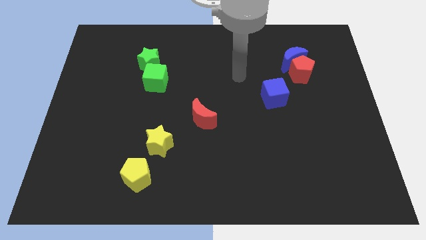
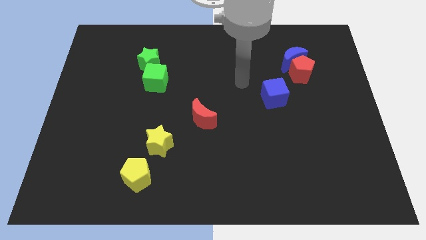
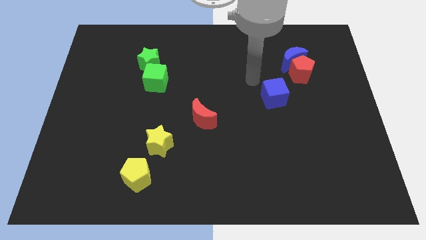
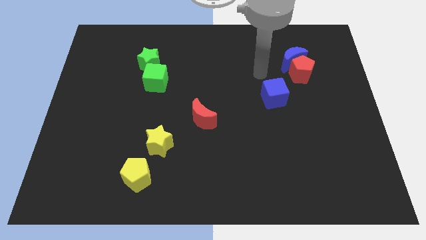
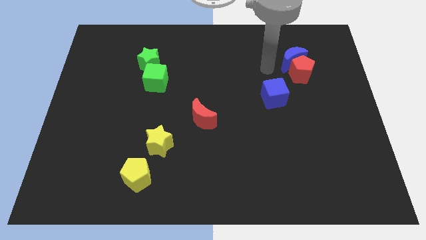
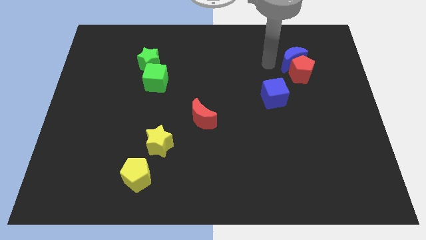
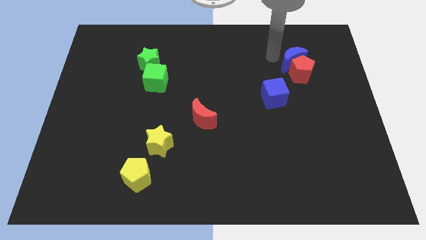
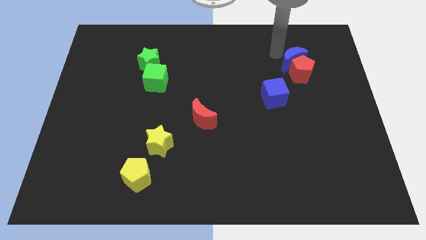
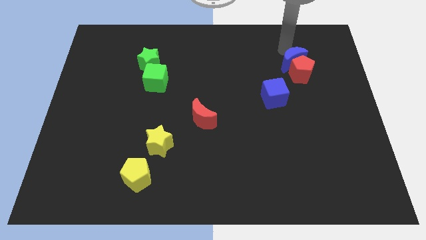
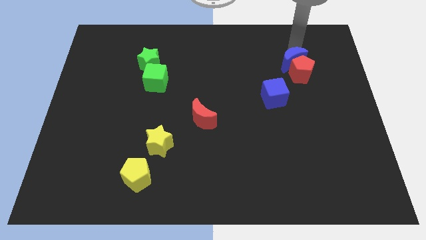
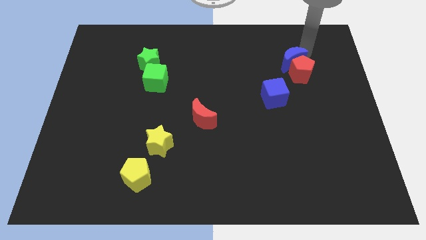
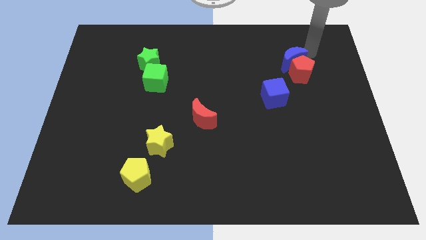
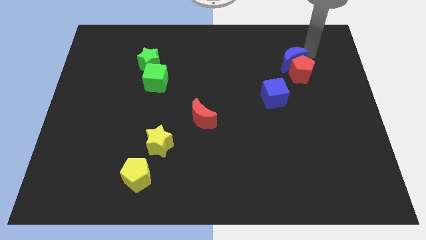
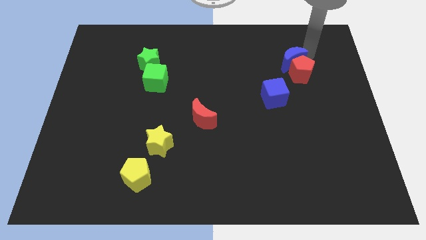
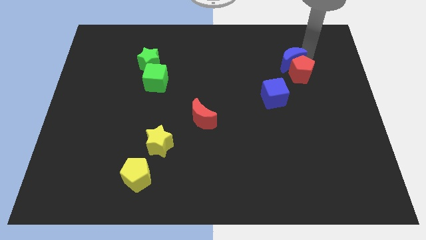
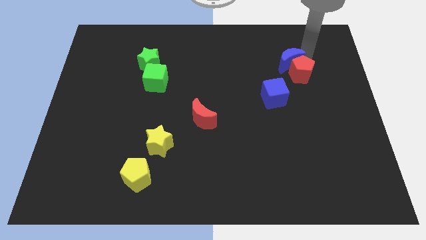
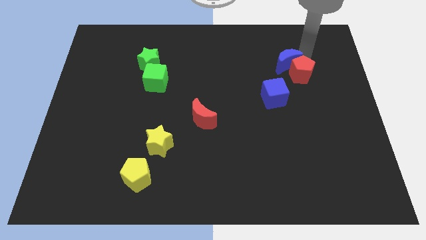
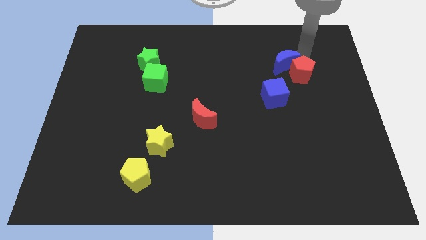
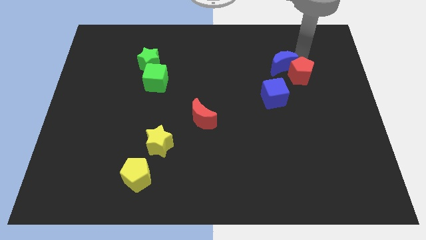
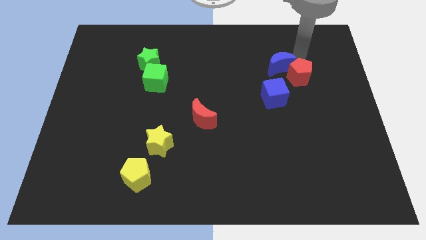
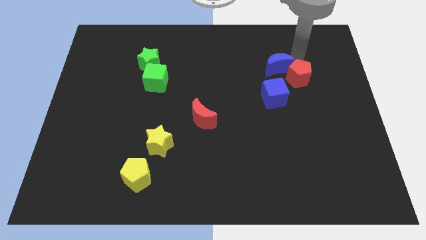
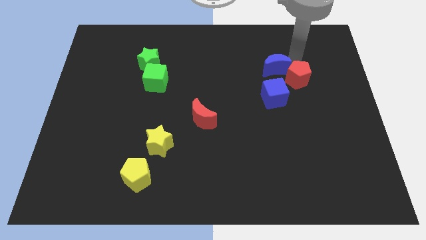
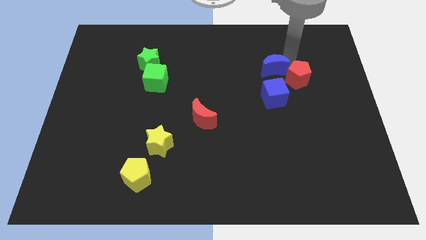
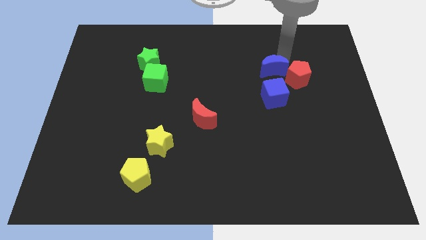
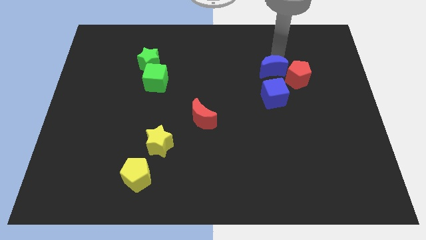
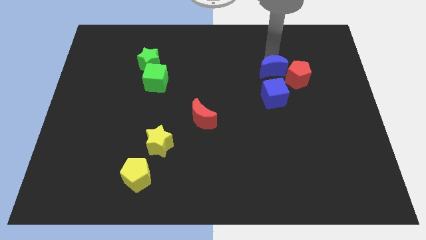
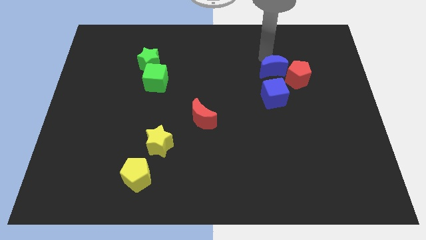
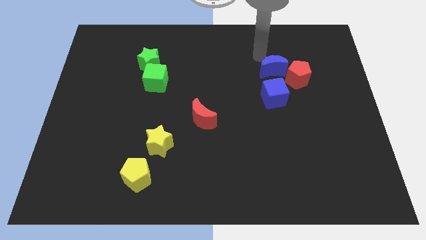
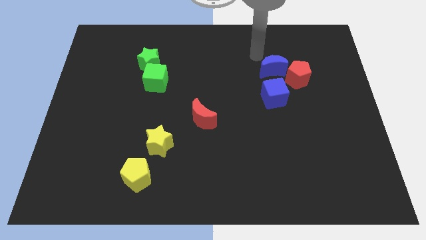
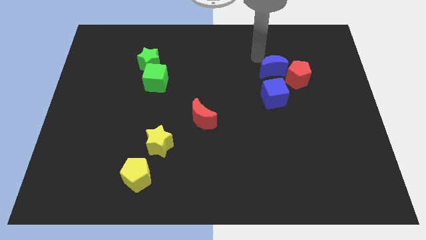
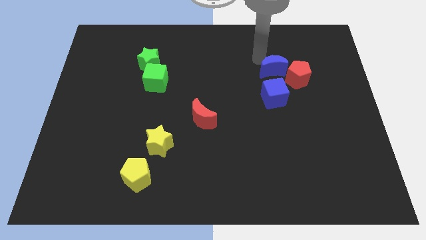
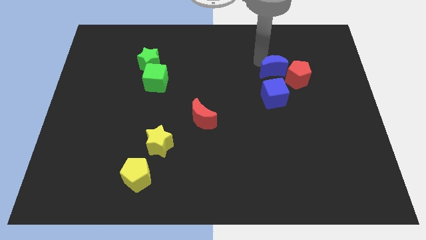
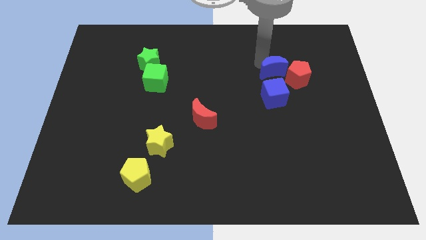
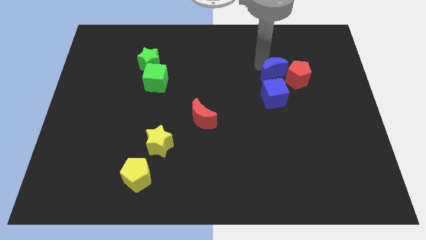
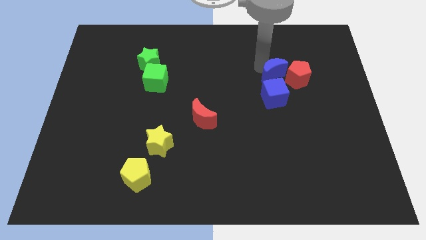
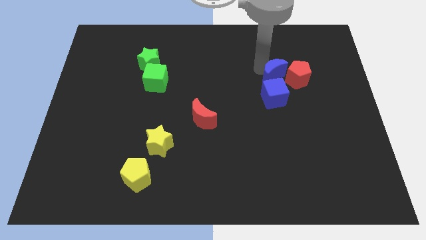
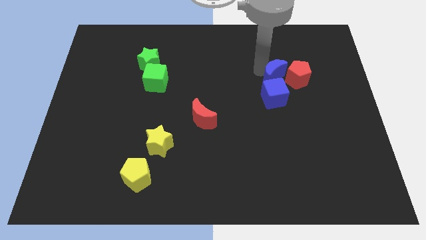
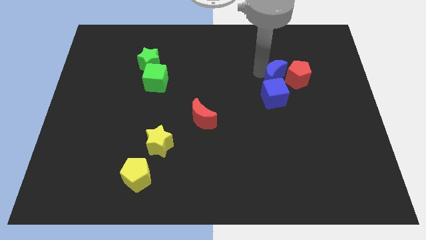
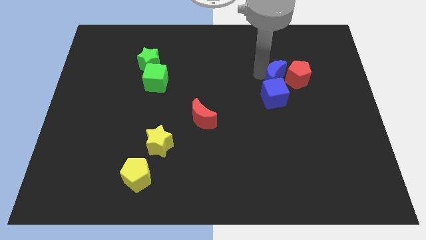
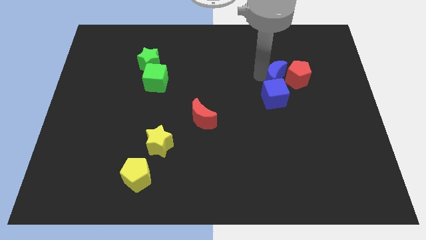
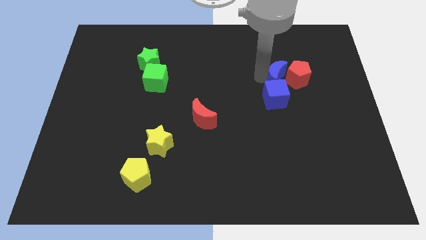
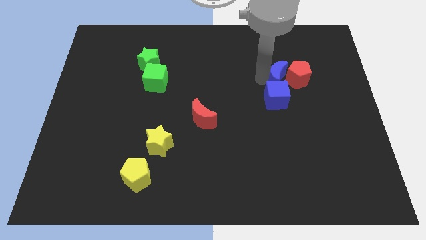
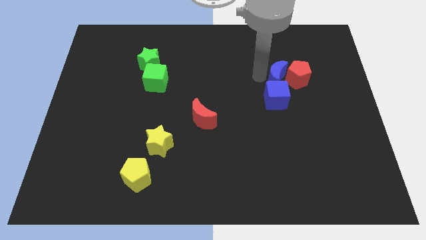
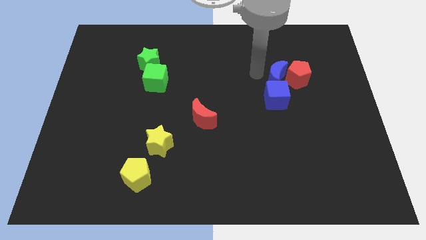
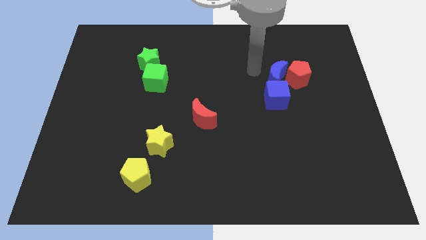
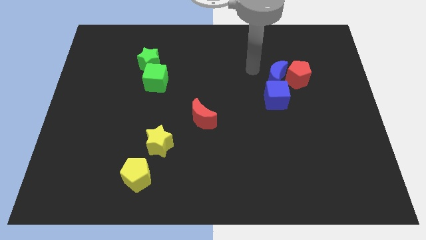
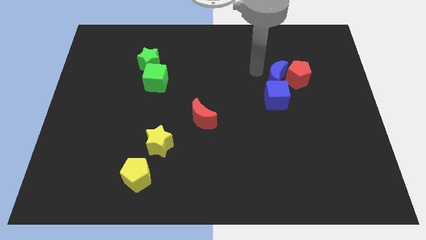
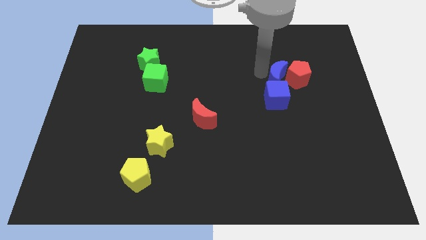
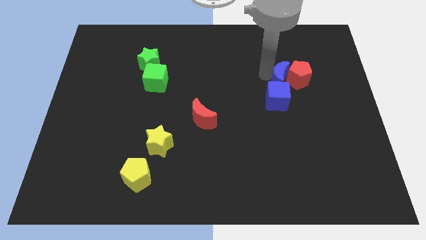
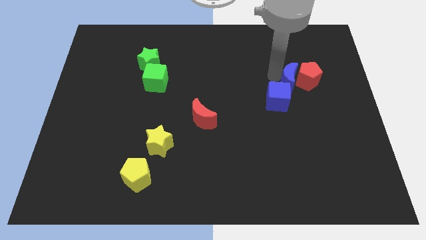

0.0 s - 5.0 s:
push the blue moon down a bit

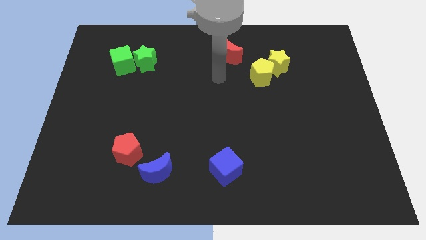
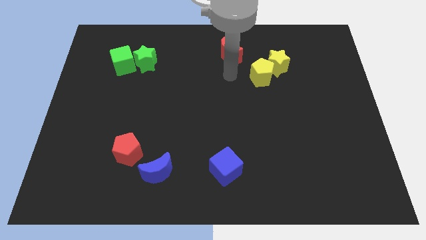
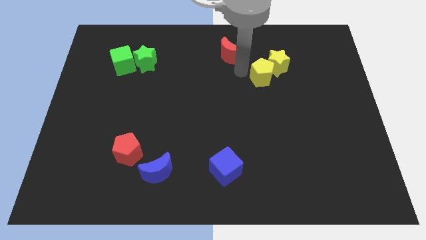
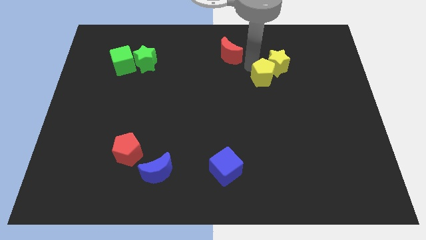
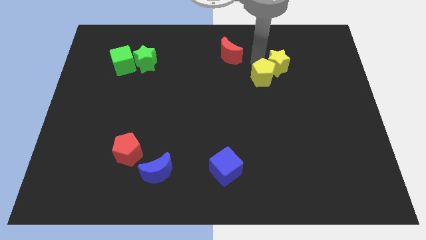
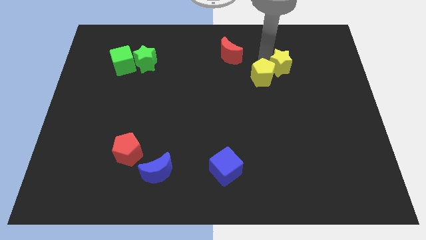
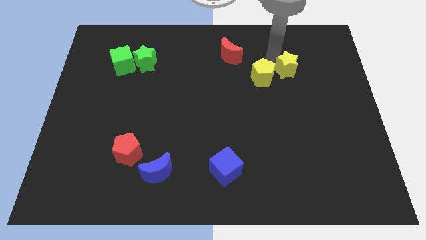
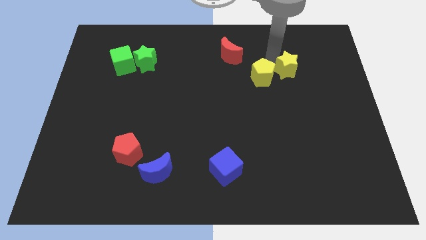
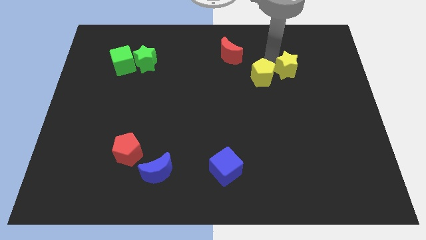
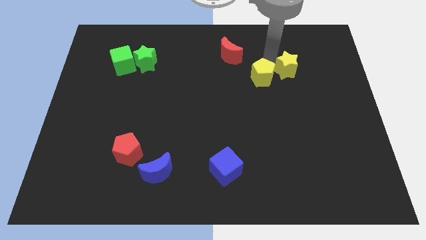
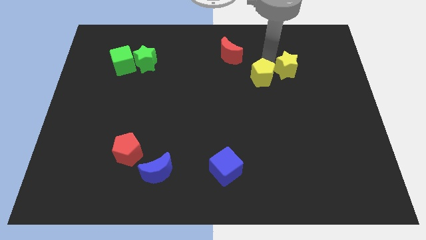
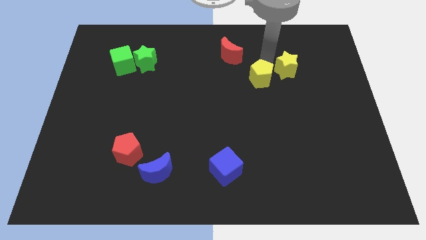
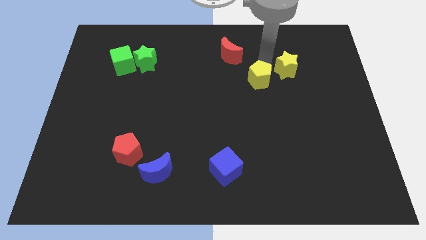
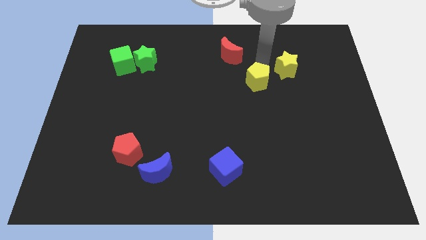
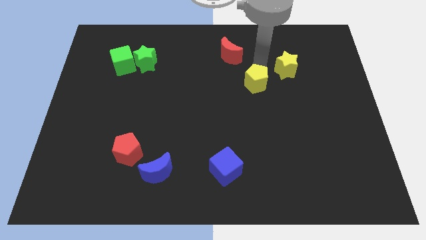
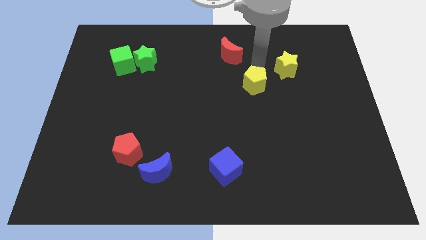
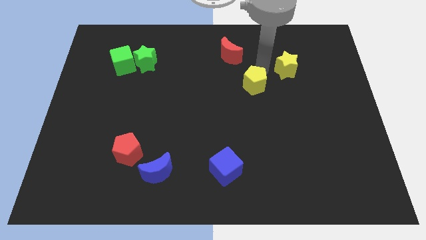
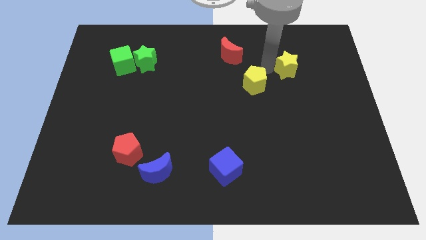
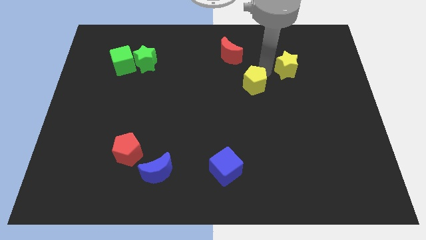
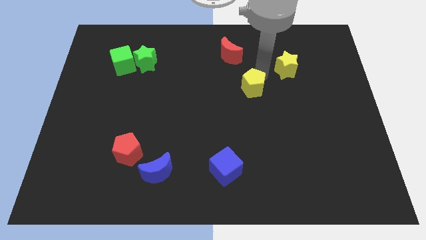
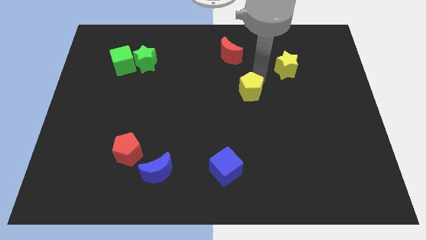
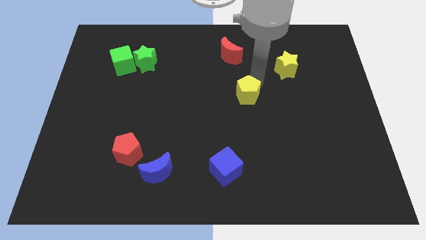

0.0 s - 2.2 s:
move the yellow pentagon slightly down and then to the left

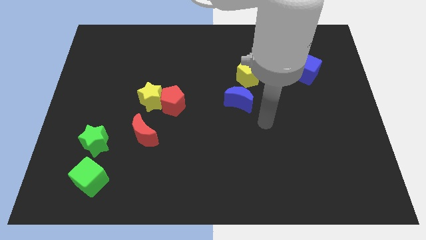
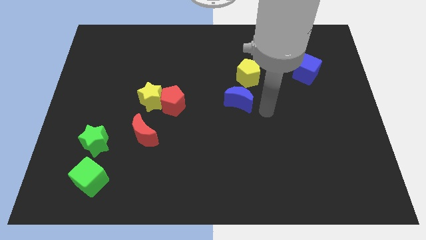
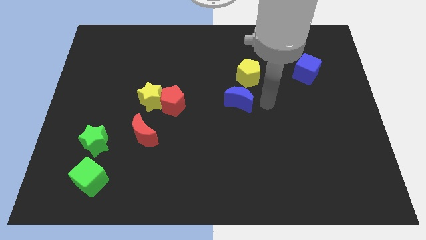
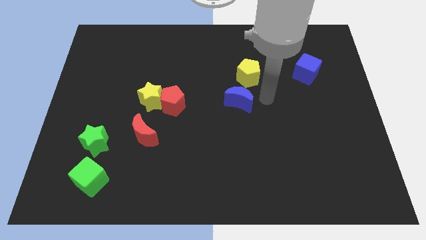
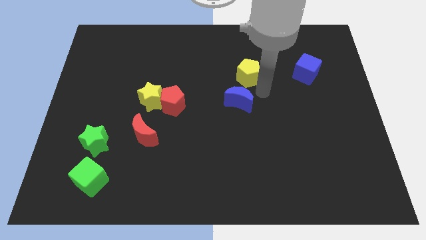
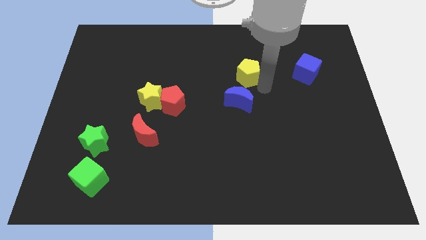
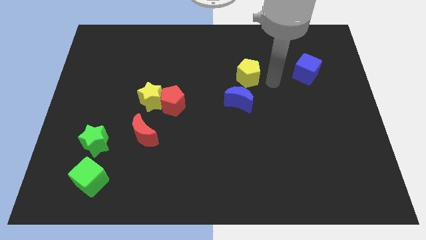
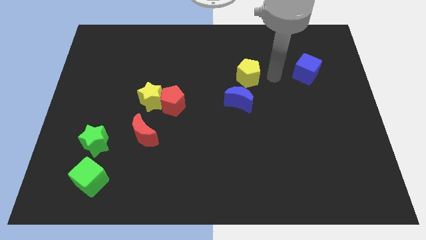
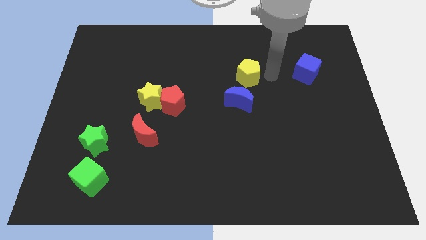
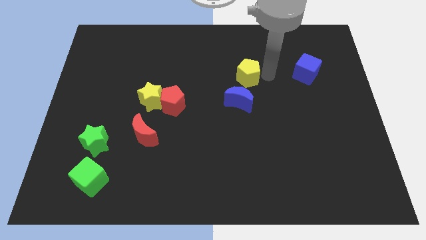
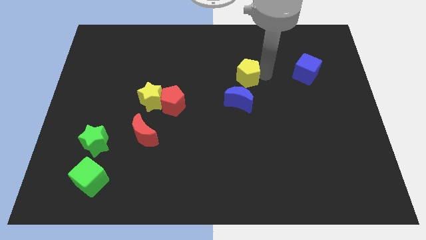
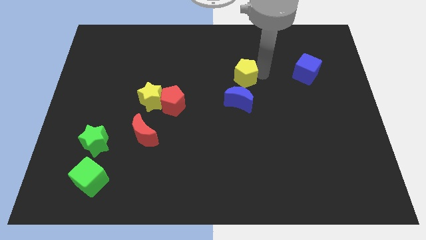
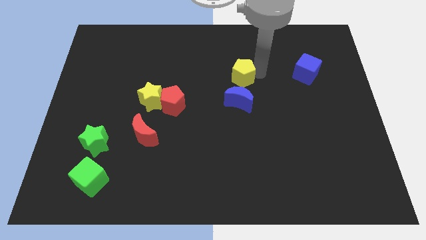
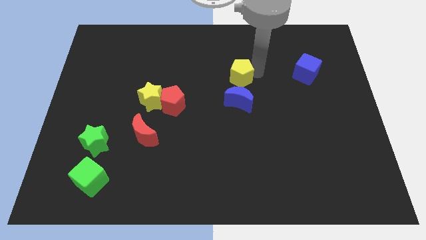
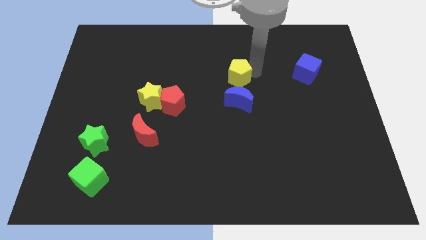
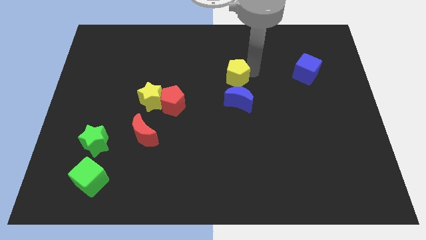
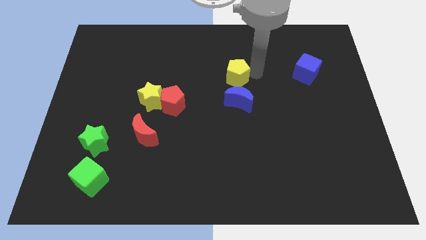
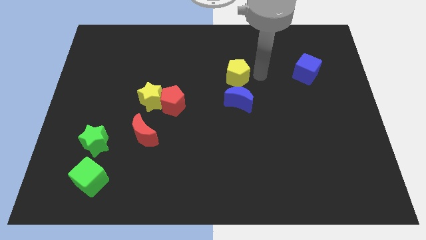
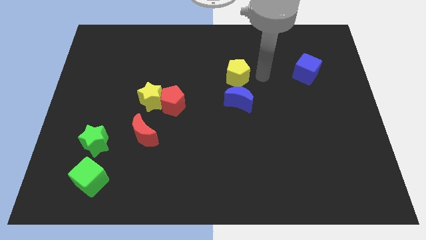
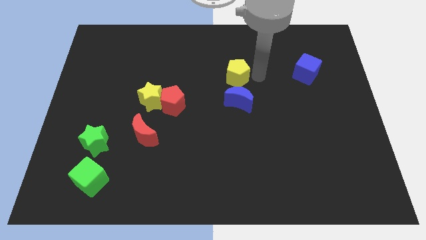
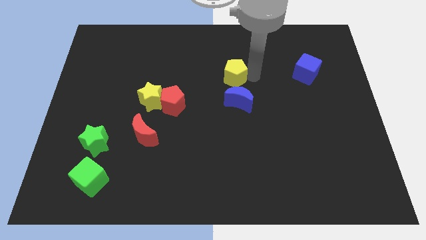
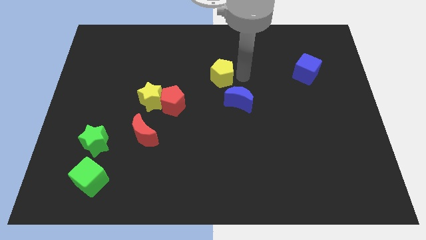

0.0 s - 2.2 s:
slightly slide the yellow pentagon left
